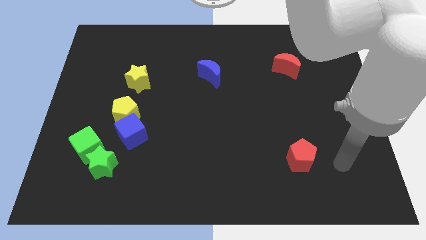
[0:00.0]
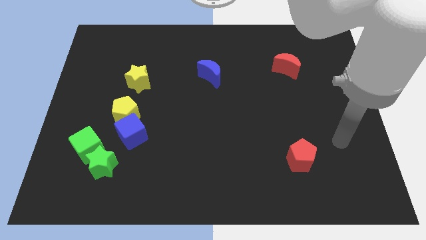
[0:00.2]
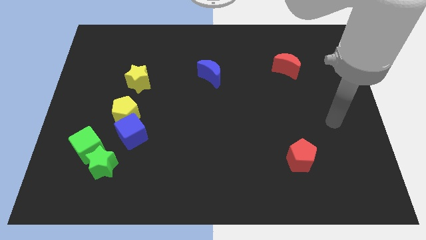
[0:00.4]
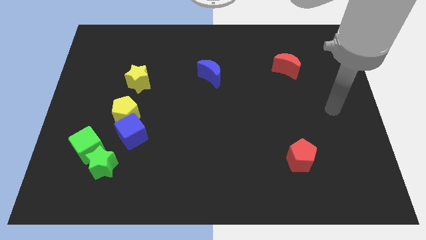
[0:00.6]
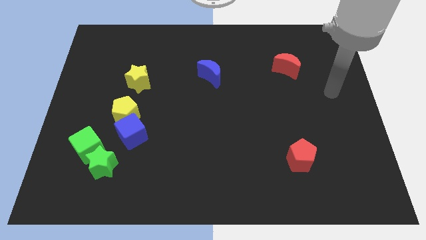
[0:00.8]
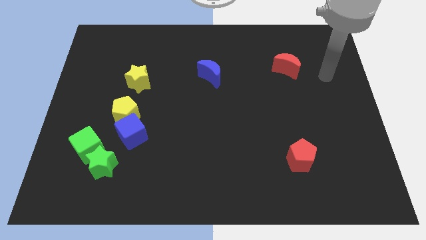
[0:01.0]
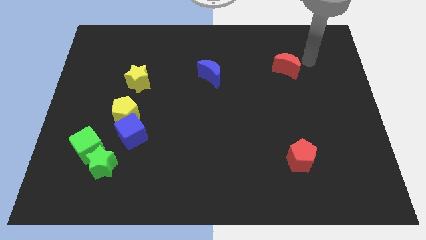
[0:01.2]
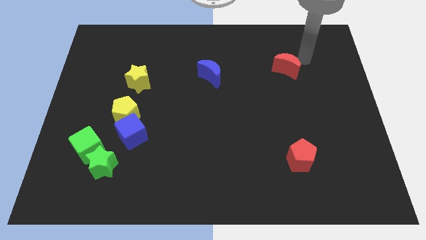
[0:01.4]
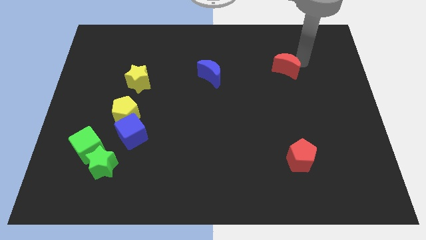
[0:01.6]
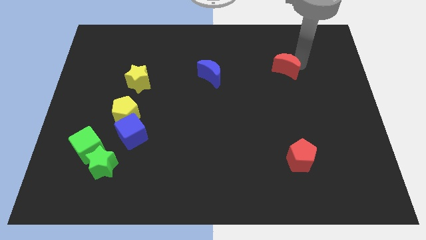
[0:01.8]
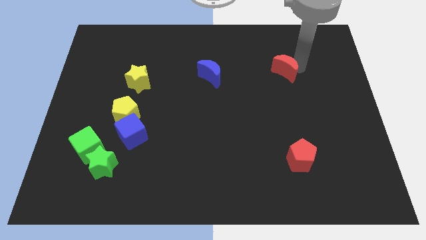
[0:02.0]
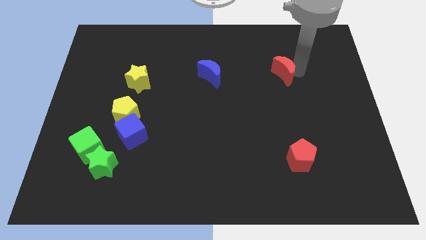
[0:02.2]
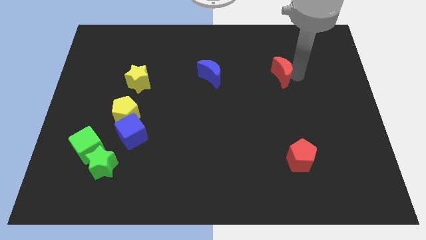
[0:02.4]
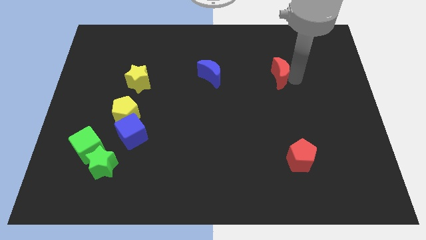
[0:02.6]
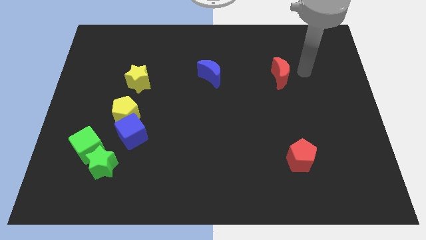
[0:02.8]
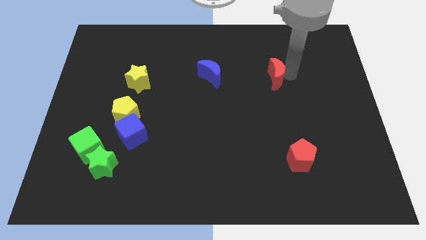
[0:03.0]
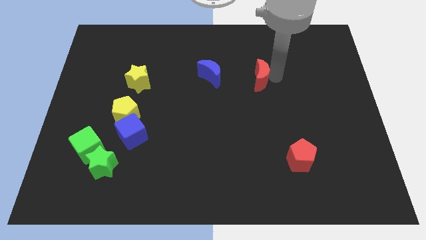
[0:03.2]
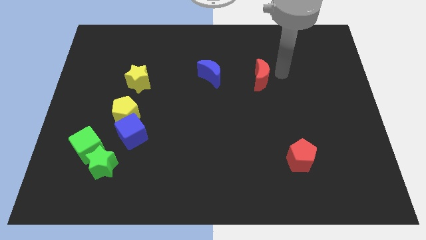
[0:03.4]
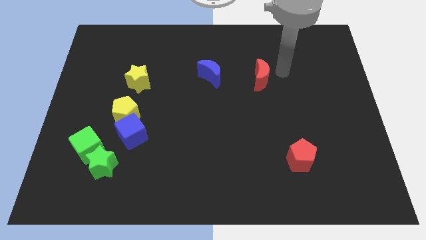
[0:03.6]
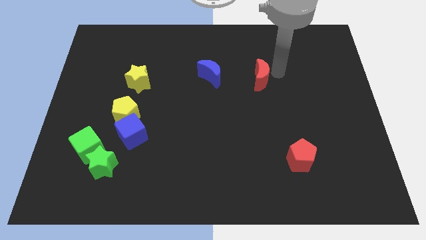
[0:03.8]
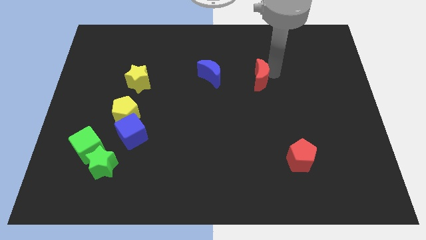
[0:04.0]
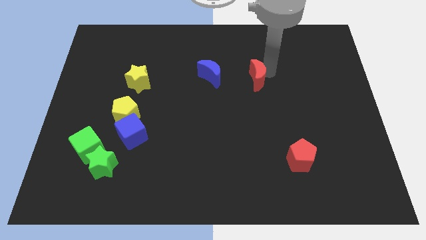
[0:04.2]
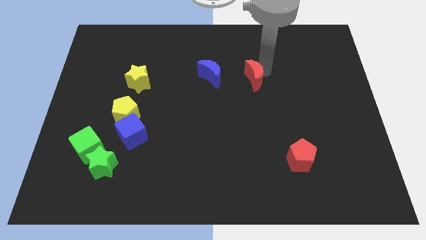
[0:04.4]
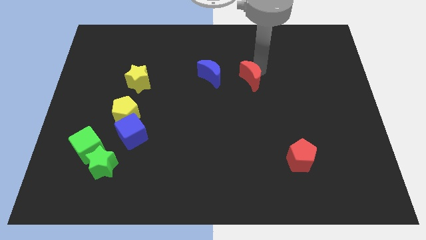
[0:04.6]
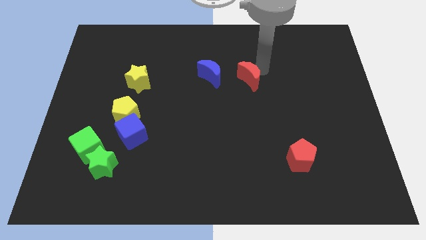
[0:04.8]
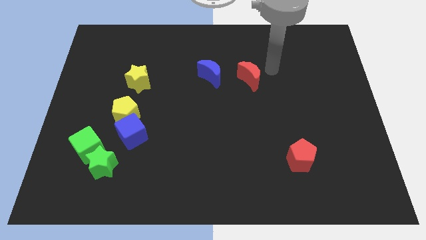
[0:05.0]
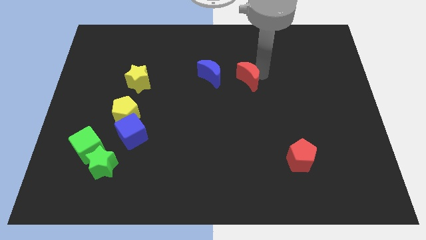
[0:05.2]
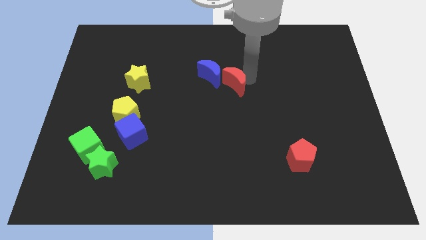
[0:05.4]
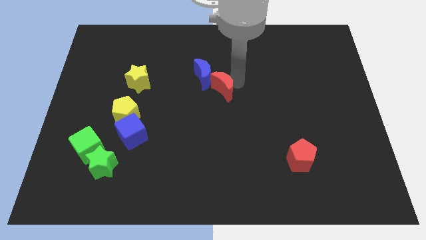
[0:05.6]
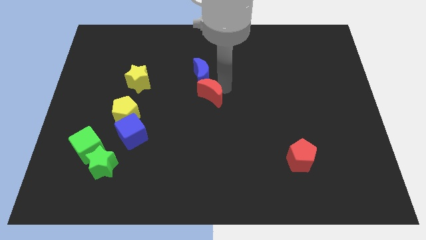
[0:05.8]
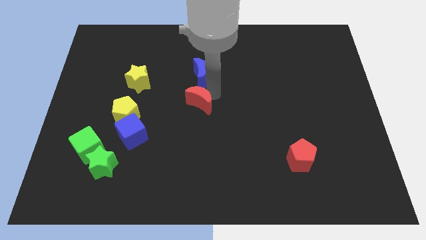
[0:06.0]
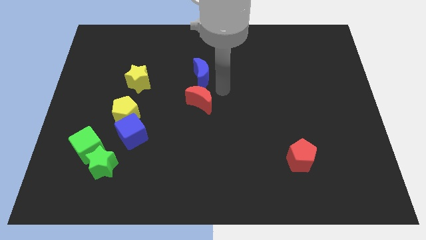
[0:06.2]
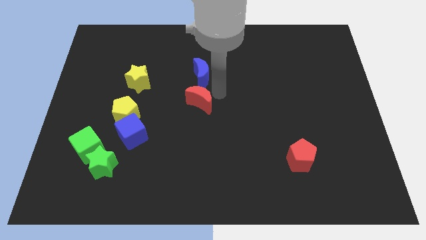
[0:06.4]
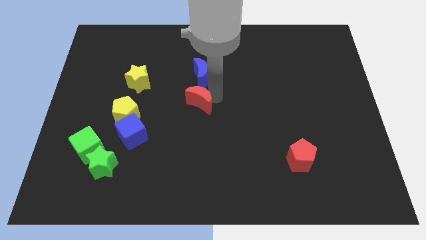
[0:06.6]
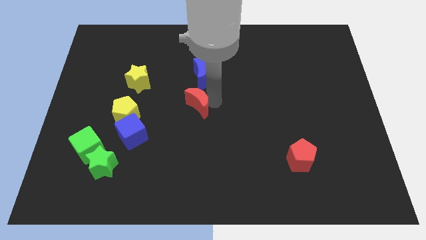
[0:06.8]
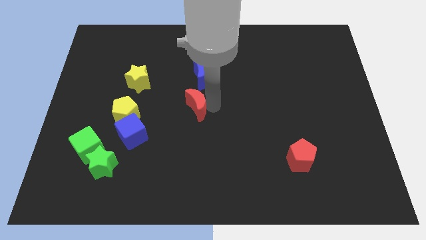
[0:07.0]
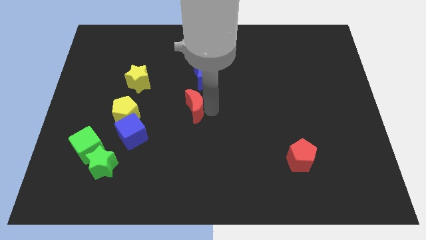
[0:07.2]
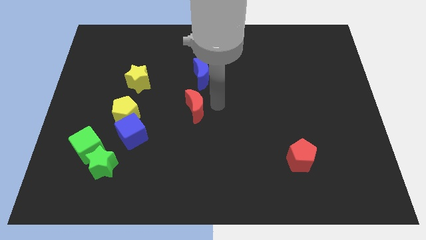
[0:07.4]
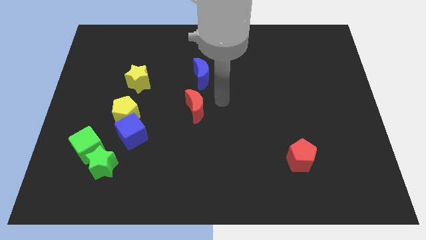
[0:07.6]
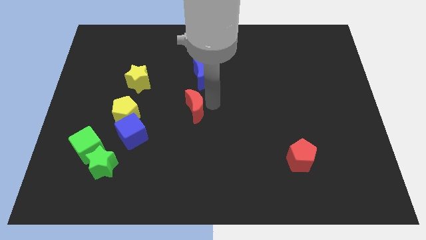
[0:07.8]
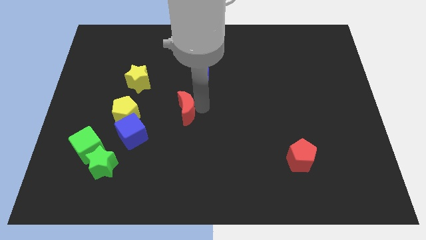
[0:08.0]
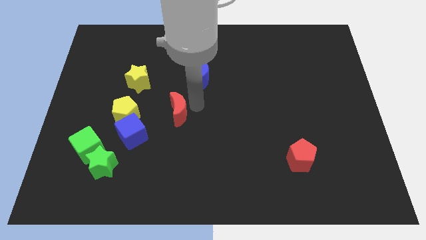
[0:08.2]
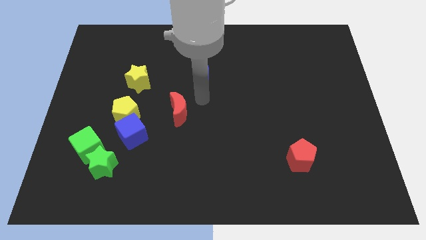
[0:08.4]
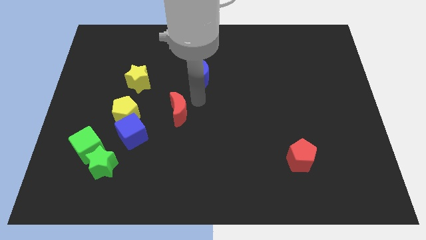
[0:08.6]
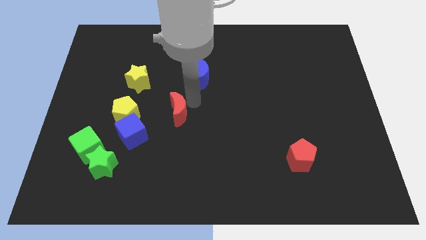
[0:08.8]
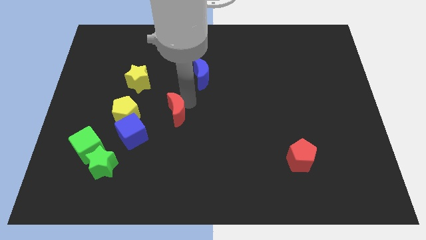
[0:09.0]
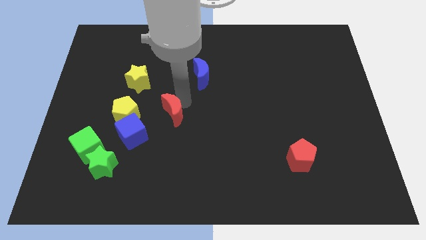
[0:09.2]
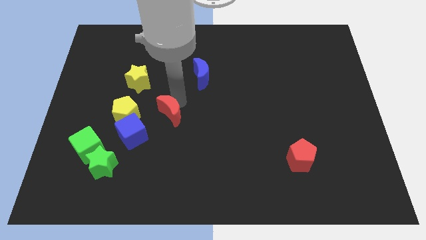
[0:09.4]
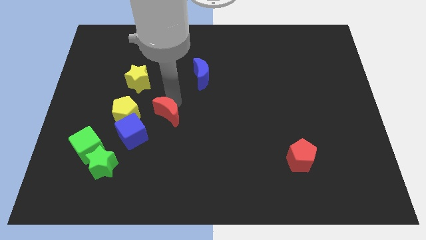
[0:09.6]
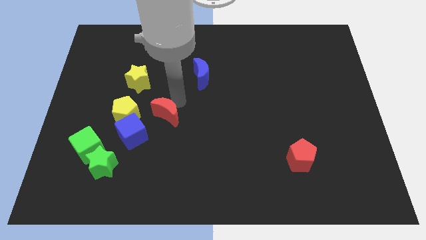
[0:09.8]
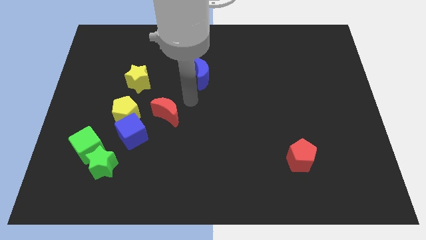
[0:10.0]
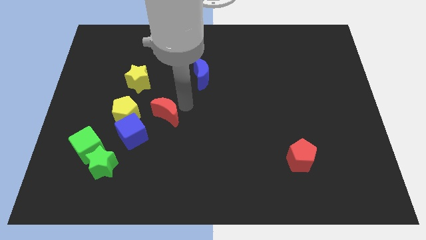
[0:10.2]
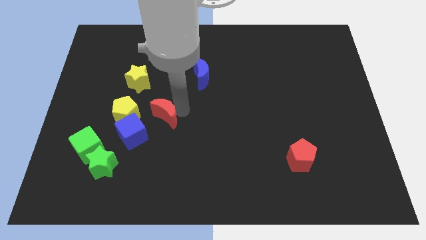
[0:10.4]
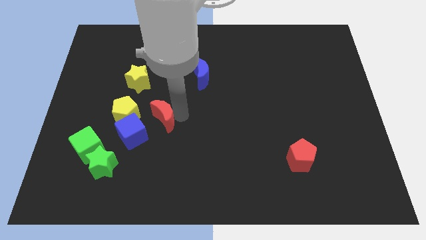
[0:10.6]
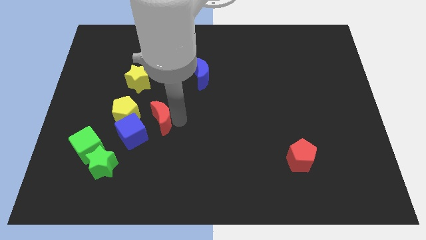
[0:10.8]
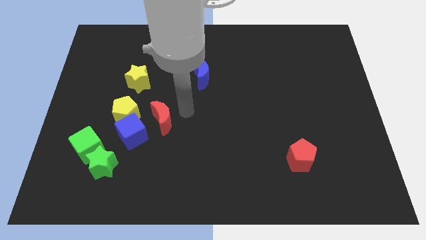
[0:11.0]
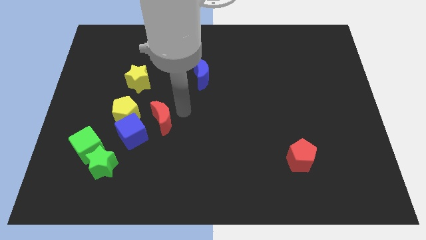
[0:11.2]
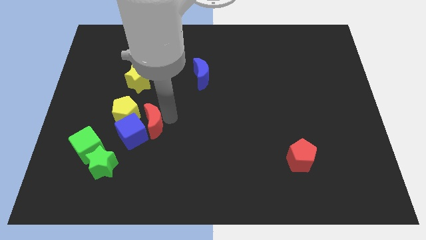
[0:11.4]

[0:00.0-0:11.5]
put the red moon next to the blue cube

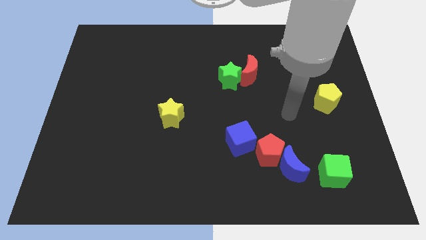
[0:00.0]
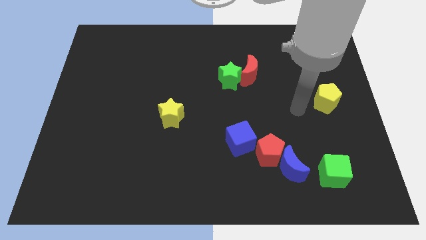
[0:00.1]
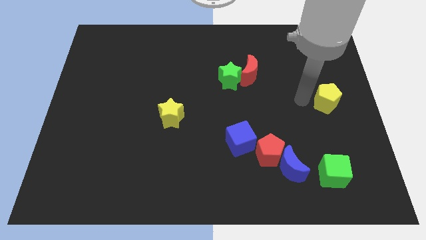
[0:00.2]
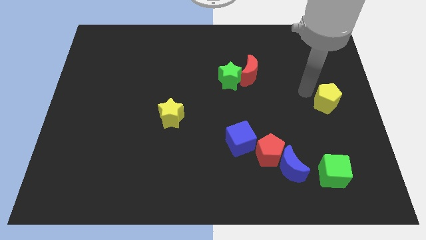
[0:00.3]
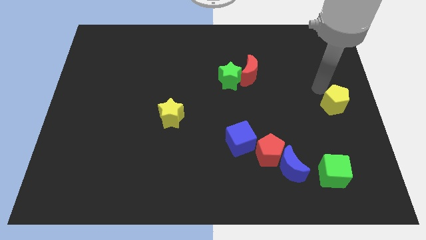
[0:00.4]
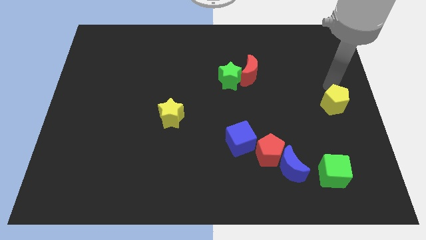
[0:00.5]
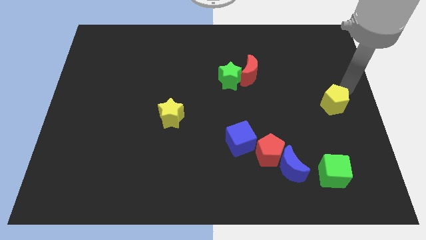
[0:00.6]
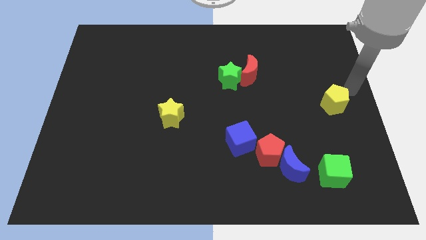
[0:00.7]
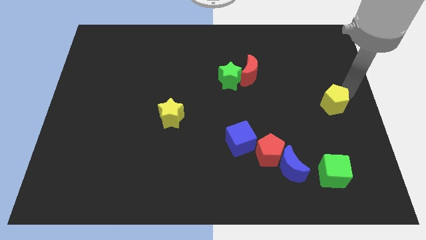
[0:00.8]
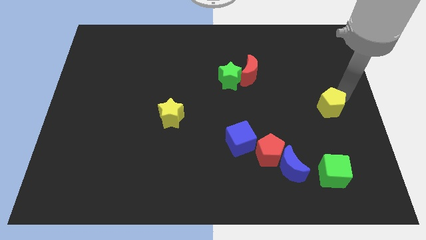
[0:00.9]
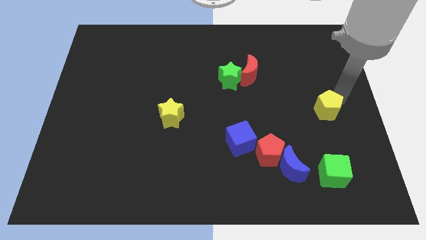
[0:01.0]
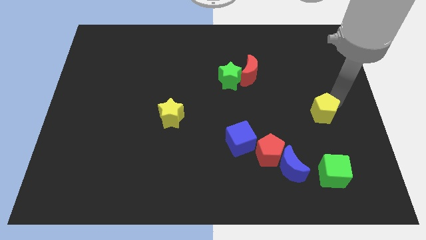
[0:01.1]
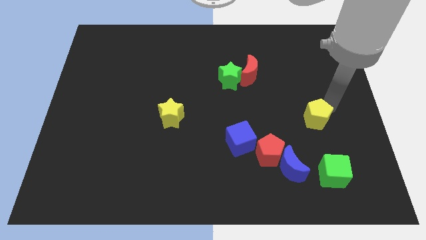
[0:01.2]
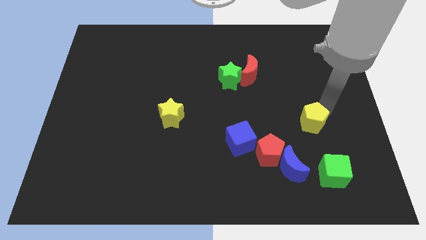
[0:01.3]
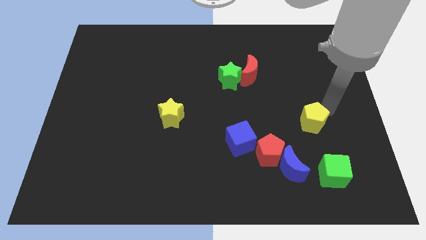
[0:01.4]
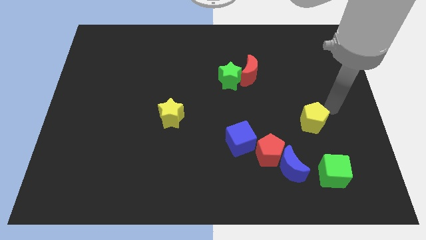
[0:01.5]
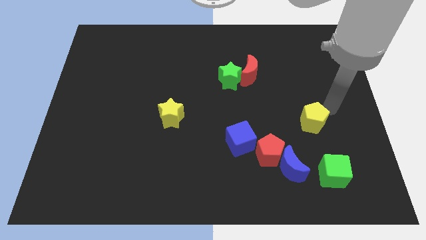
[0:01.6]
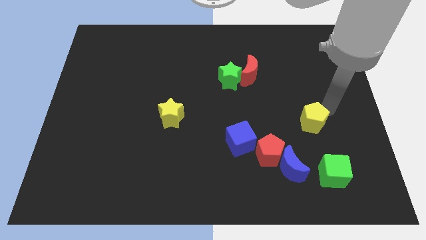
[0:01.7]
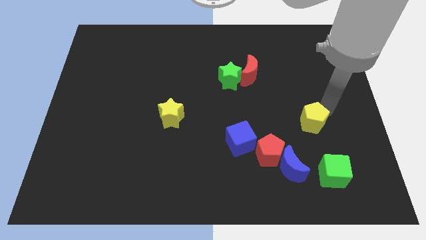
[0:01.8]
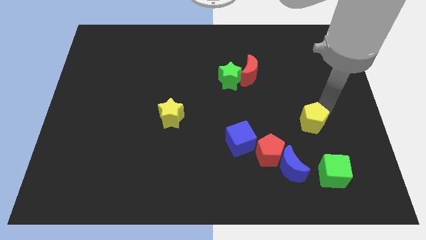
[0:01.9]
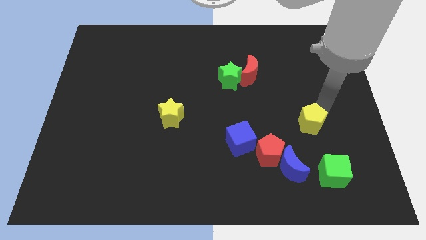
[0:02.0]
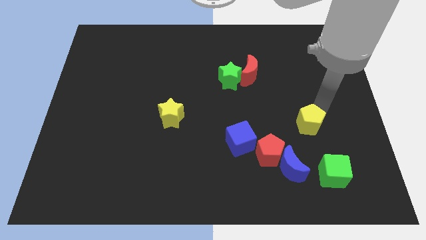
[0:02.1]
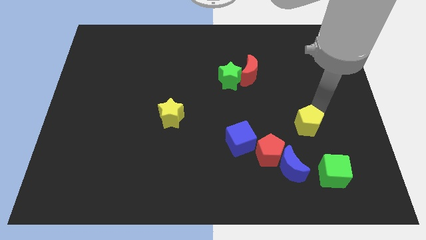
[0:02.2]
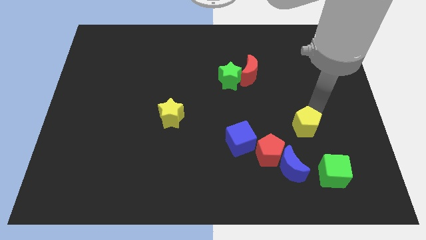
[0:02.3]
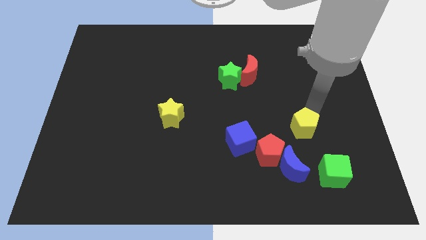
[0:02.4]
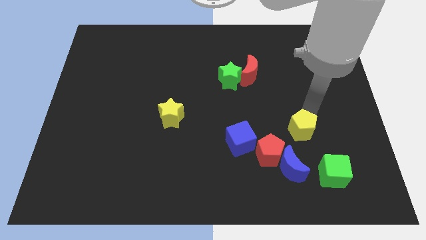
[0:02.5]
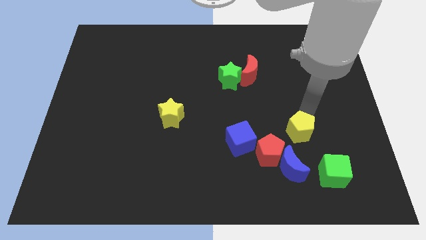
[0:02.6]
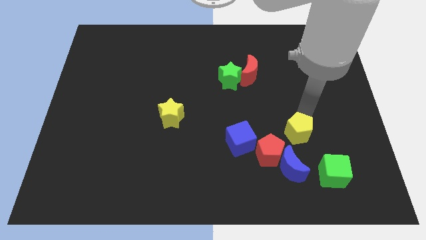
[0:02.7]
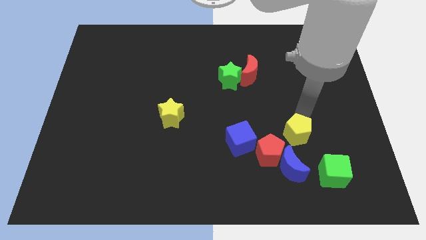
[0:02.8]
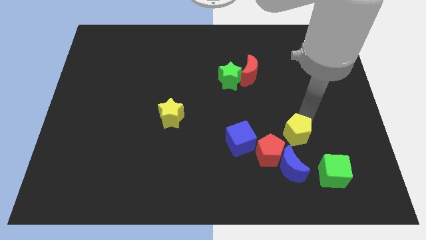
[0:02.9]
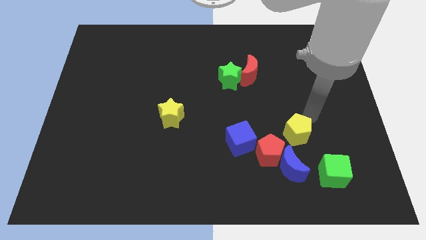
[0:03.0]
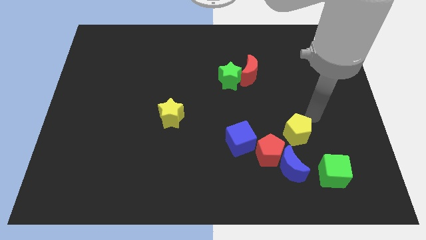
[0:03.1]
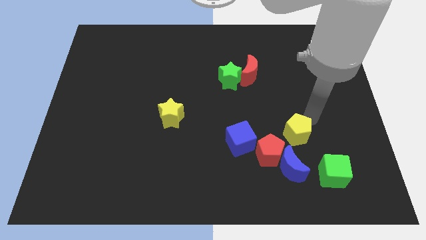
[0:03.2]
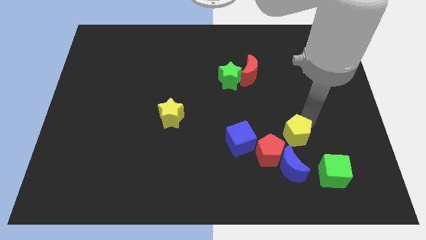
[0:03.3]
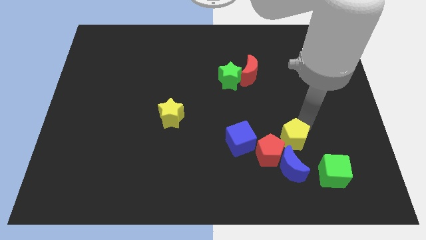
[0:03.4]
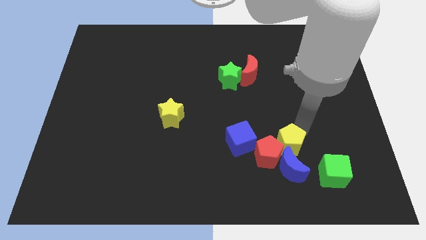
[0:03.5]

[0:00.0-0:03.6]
slide the yellow pentagon close to the red pentagon
